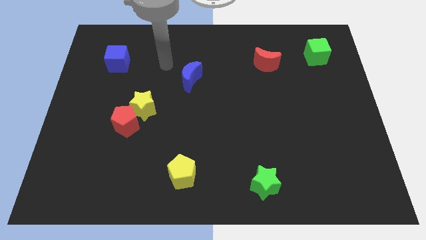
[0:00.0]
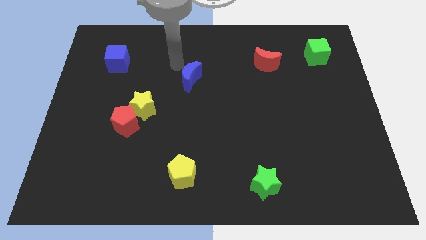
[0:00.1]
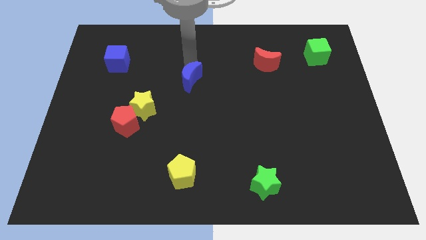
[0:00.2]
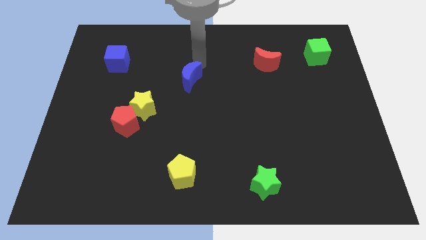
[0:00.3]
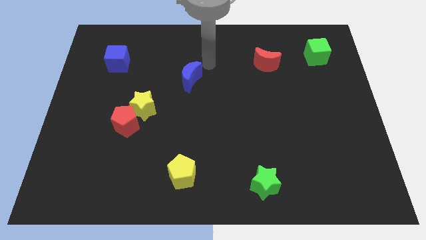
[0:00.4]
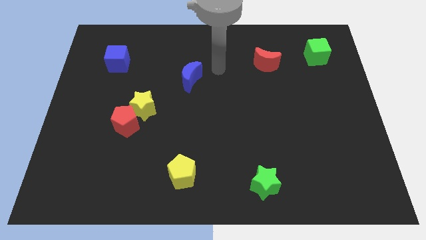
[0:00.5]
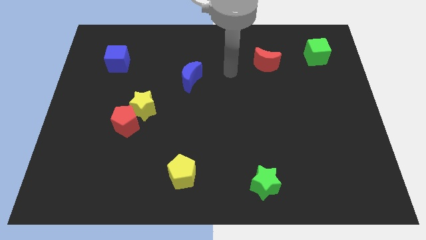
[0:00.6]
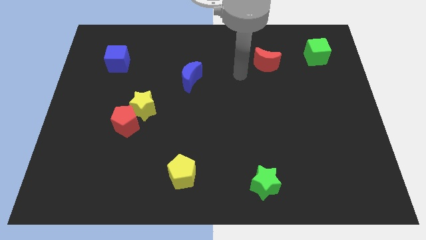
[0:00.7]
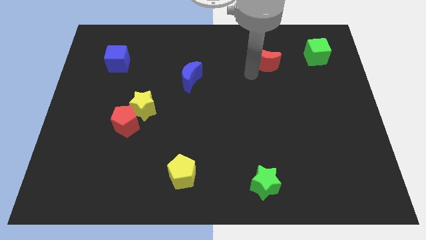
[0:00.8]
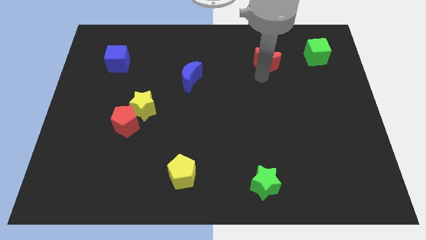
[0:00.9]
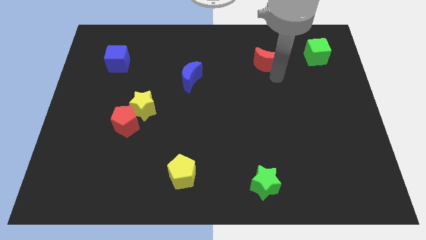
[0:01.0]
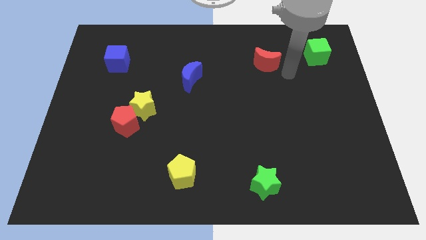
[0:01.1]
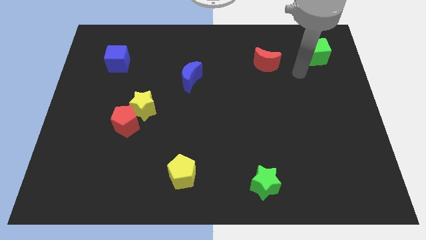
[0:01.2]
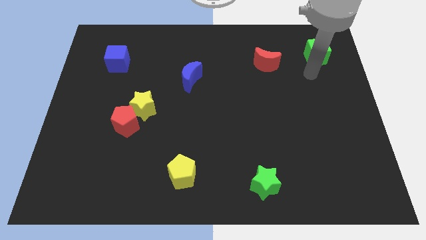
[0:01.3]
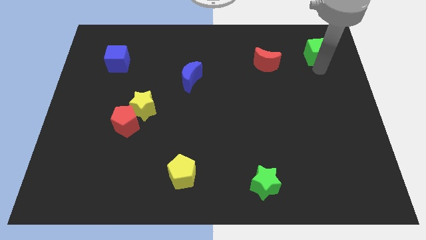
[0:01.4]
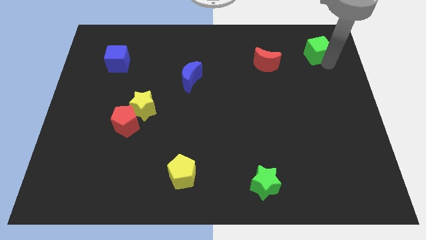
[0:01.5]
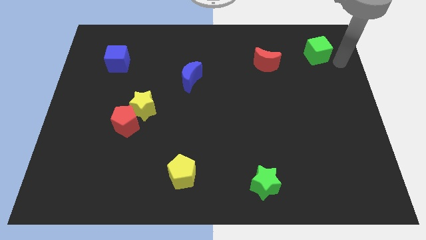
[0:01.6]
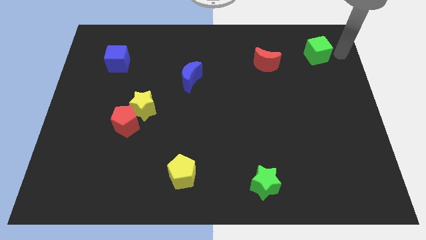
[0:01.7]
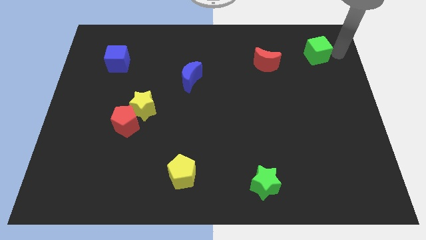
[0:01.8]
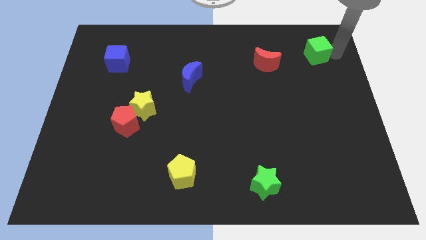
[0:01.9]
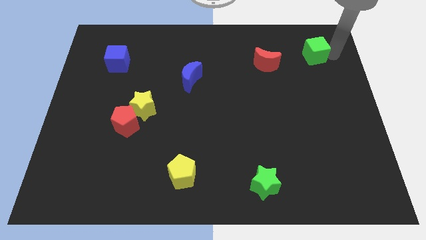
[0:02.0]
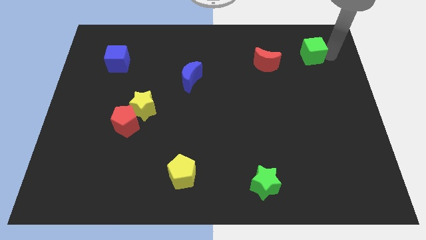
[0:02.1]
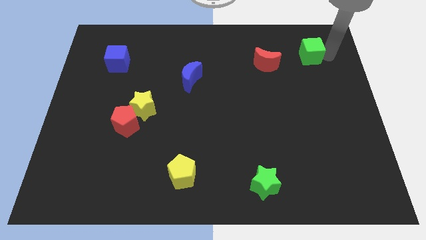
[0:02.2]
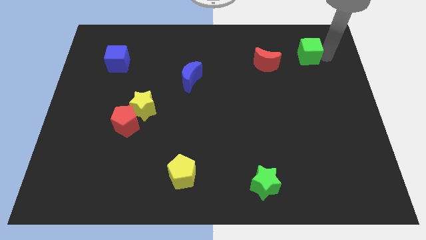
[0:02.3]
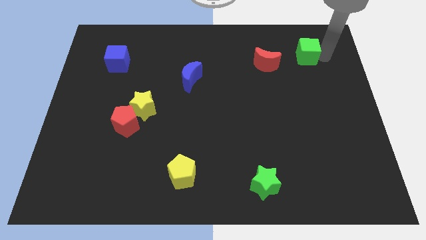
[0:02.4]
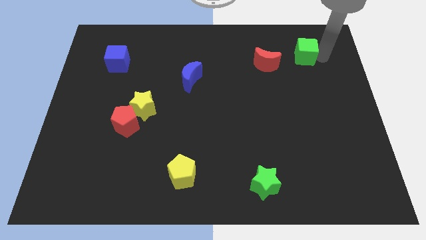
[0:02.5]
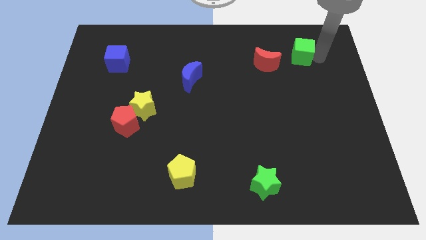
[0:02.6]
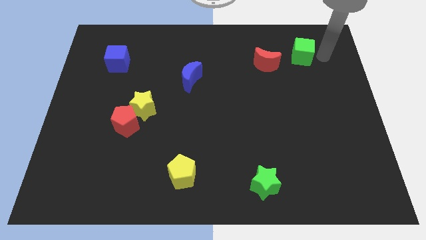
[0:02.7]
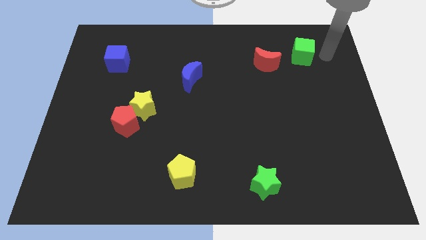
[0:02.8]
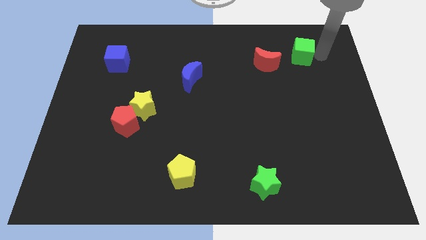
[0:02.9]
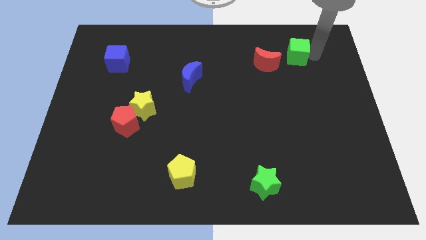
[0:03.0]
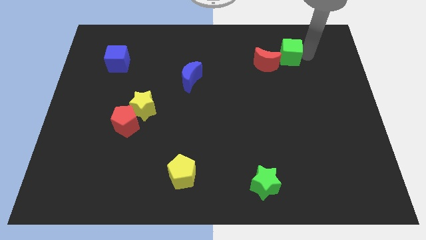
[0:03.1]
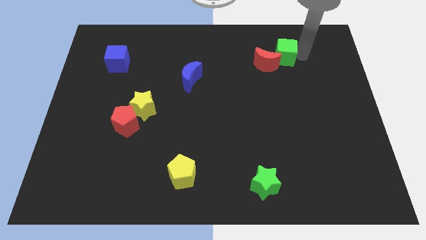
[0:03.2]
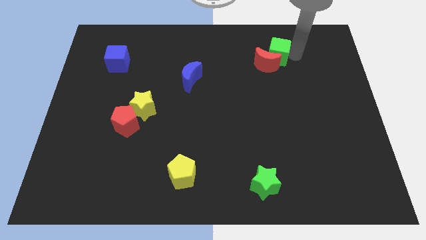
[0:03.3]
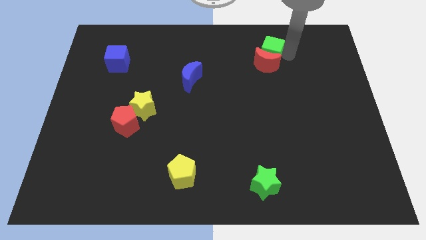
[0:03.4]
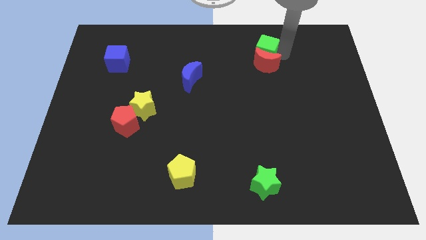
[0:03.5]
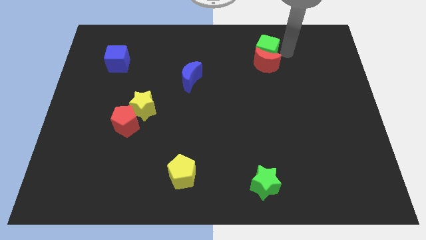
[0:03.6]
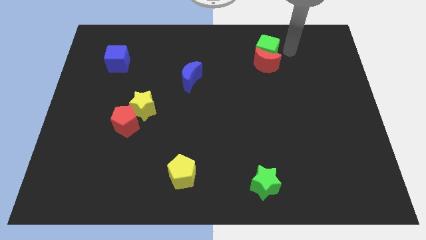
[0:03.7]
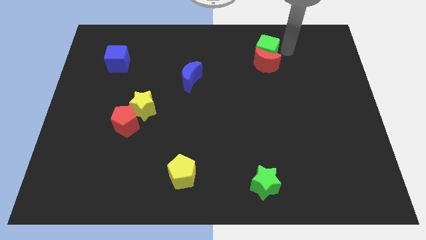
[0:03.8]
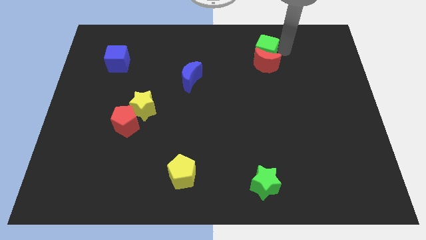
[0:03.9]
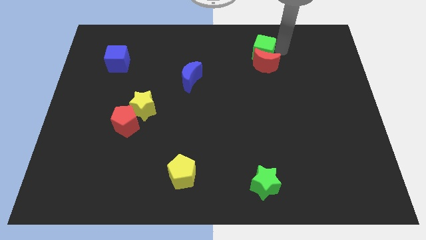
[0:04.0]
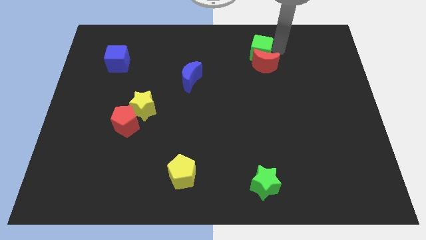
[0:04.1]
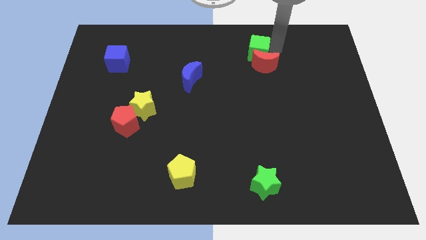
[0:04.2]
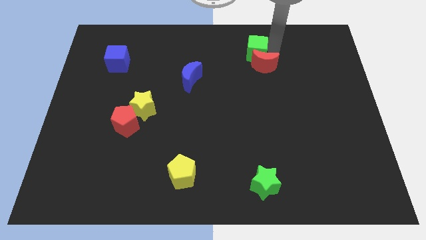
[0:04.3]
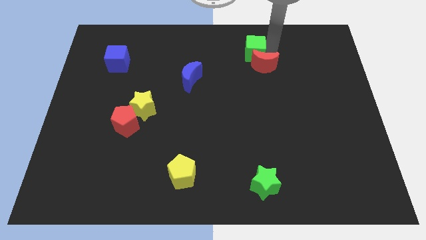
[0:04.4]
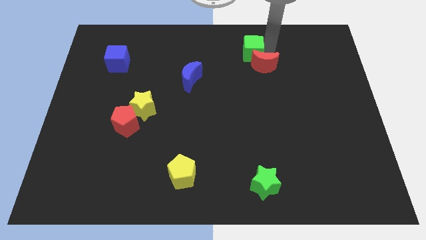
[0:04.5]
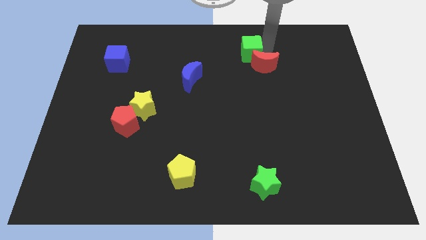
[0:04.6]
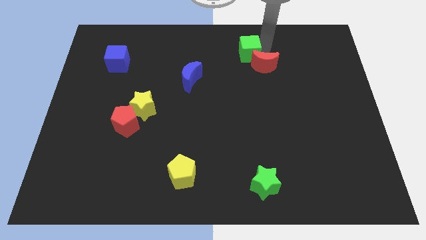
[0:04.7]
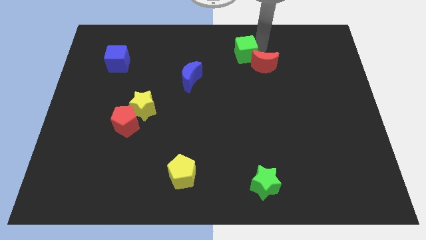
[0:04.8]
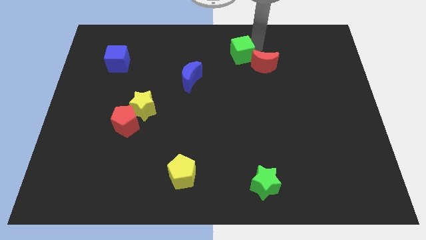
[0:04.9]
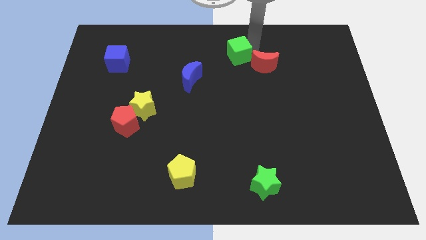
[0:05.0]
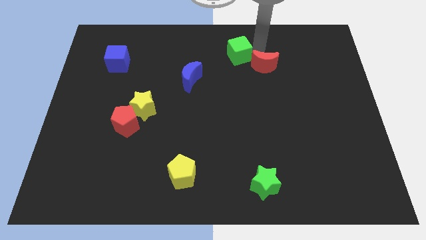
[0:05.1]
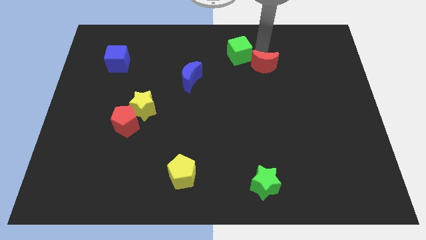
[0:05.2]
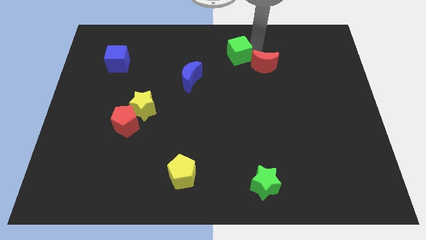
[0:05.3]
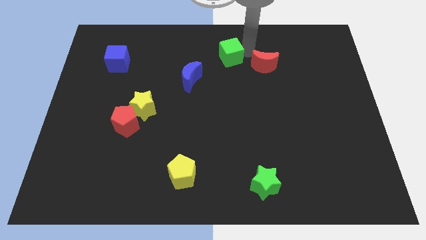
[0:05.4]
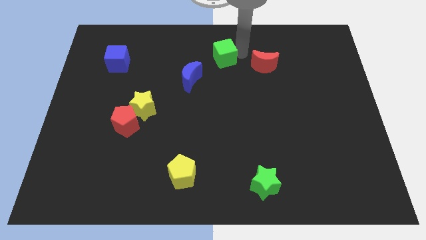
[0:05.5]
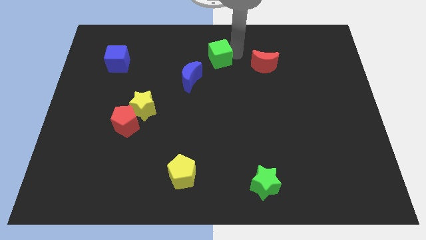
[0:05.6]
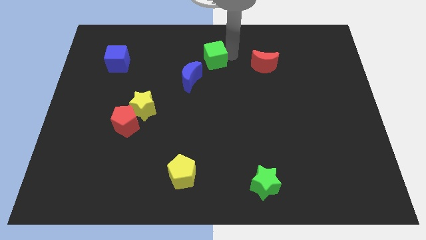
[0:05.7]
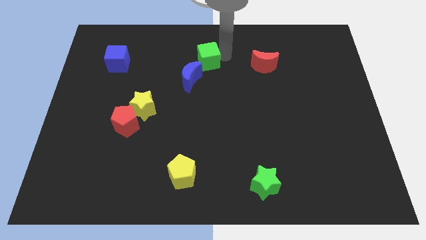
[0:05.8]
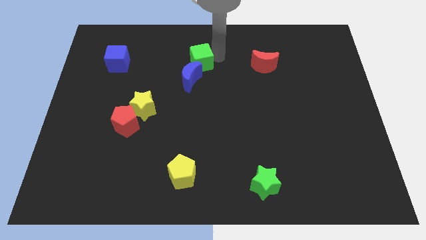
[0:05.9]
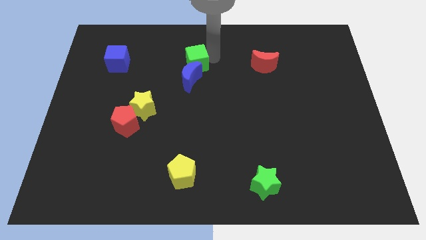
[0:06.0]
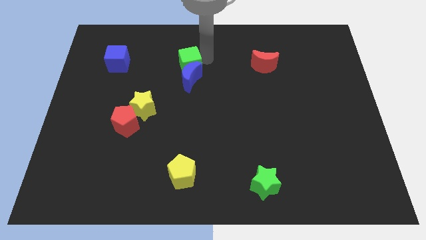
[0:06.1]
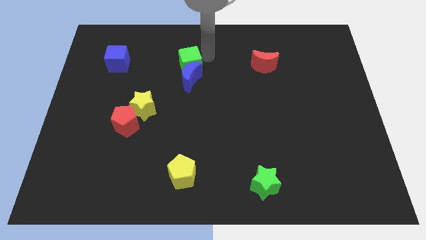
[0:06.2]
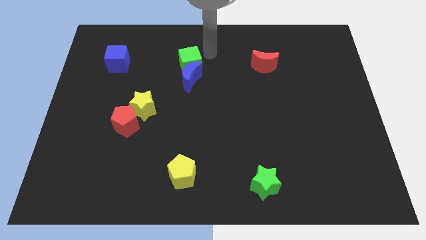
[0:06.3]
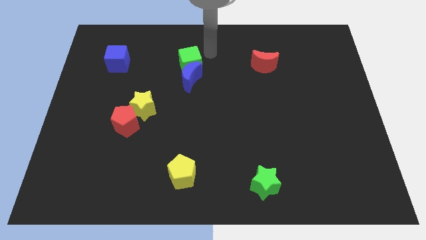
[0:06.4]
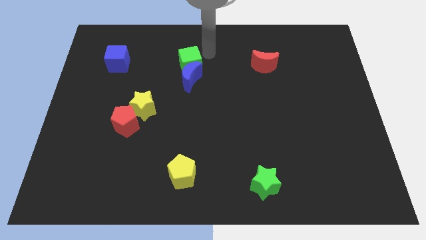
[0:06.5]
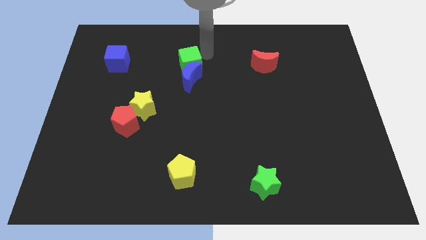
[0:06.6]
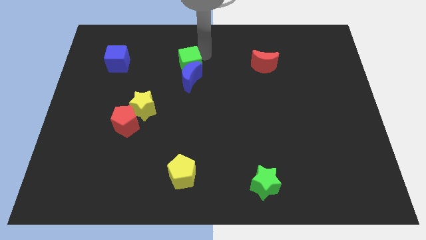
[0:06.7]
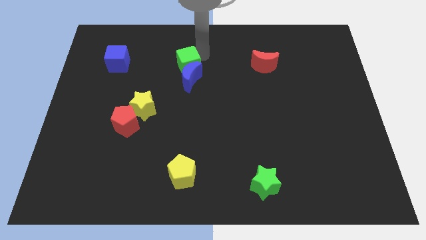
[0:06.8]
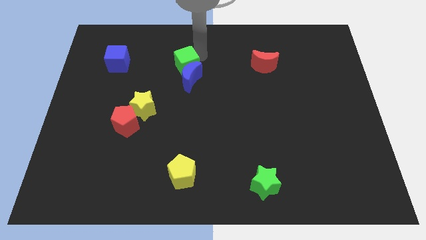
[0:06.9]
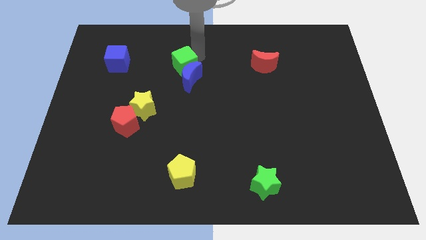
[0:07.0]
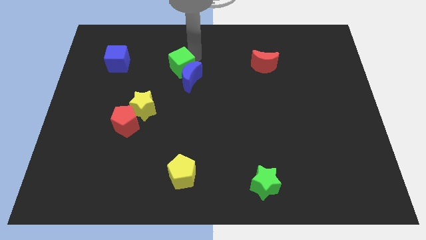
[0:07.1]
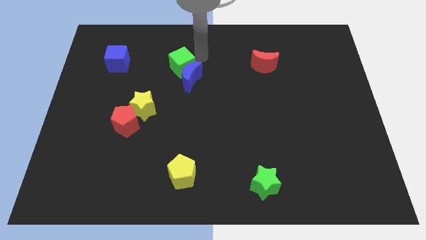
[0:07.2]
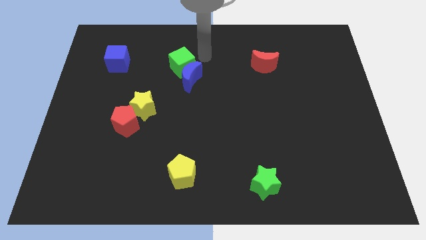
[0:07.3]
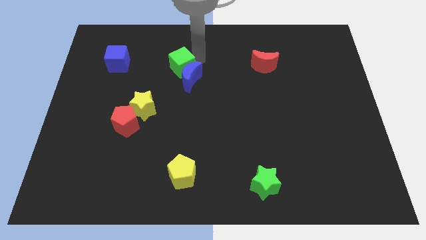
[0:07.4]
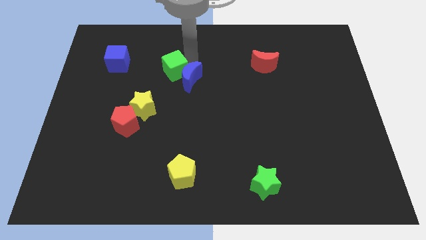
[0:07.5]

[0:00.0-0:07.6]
slide the green cube just left of the blue moon
